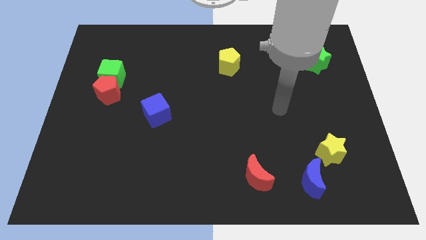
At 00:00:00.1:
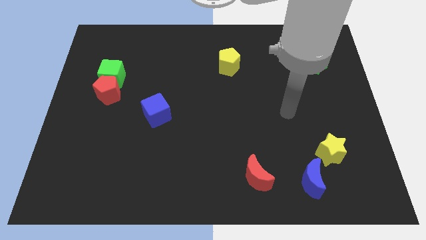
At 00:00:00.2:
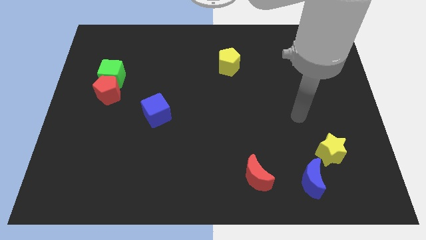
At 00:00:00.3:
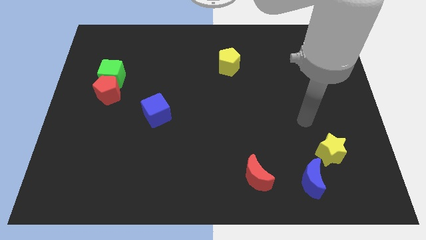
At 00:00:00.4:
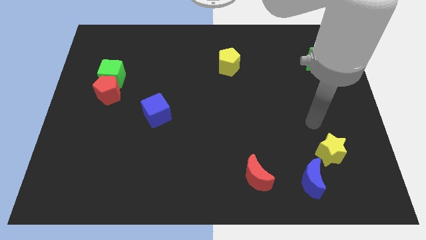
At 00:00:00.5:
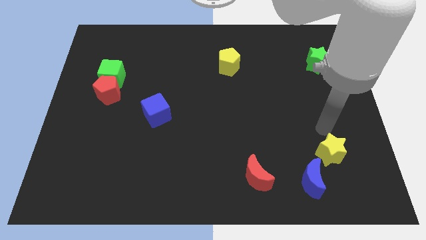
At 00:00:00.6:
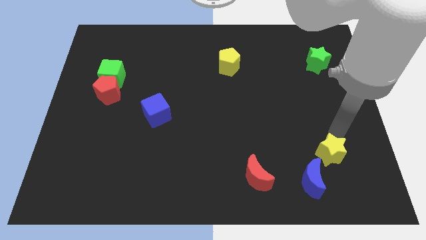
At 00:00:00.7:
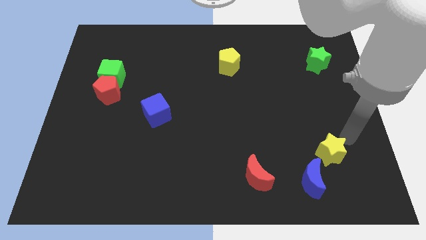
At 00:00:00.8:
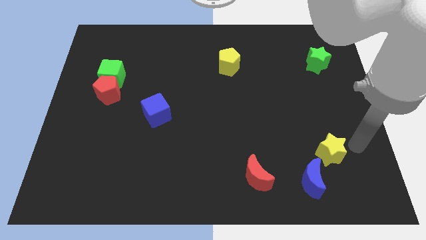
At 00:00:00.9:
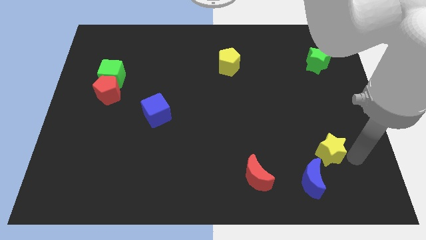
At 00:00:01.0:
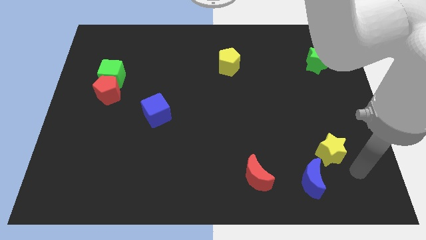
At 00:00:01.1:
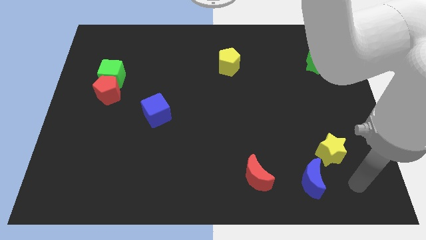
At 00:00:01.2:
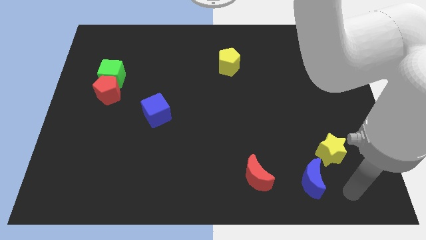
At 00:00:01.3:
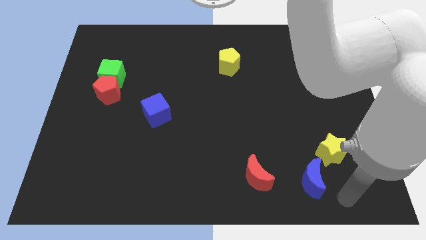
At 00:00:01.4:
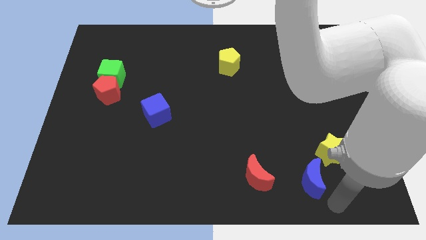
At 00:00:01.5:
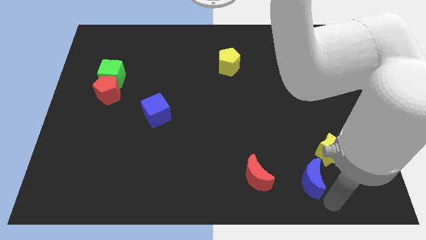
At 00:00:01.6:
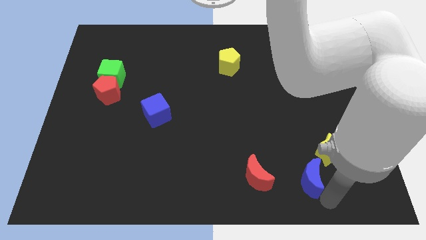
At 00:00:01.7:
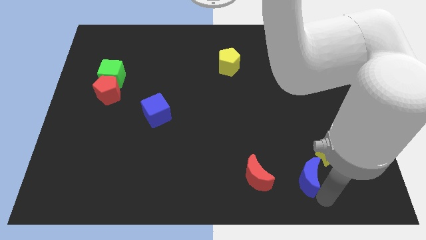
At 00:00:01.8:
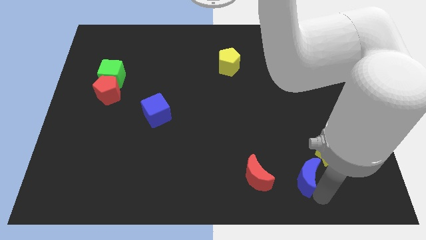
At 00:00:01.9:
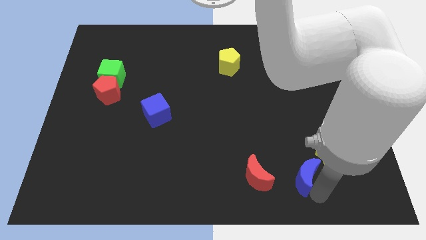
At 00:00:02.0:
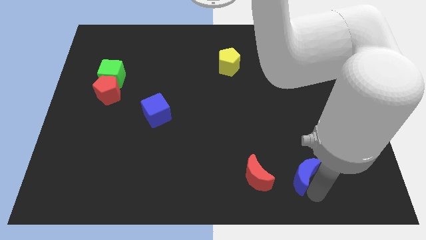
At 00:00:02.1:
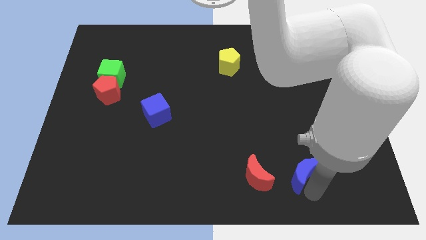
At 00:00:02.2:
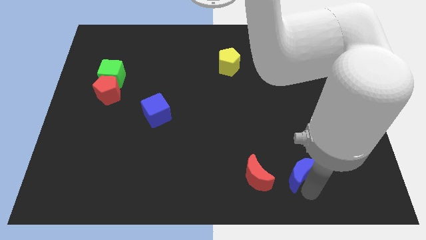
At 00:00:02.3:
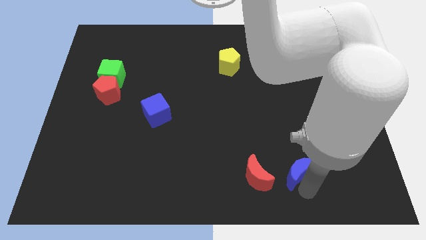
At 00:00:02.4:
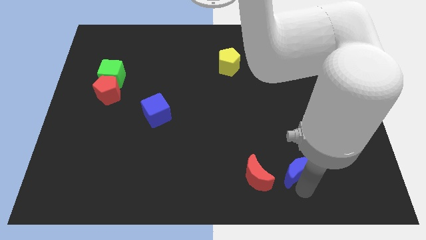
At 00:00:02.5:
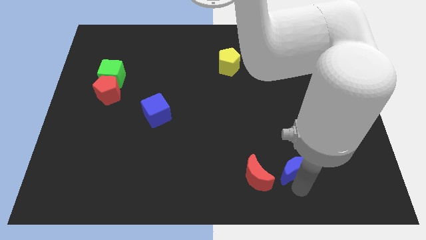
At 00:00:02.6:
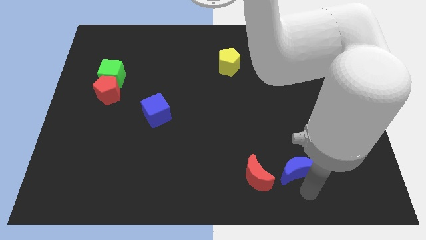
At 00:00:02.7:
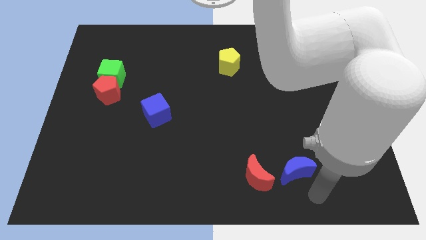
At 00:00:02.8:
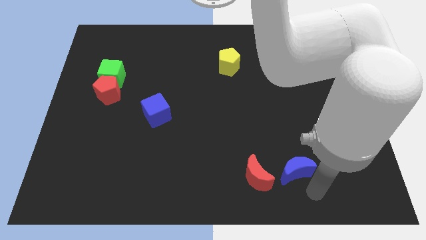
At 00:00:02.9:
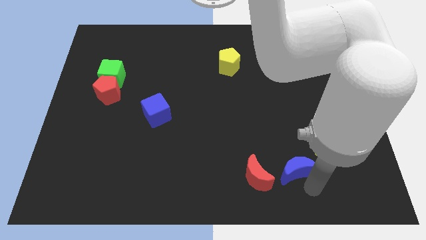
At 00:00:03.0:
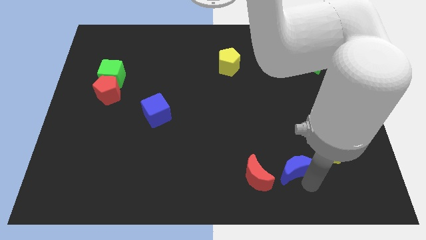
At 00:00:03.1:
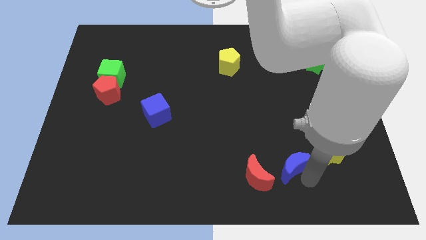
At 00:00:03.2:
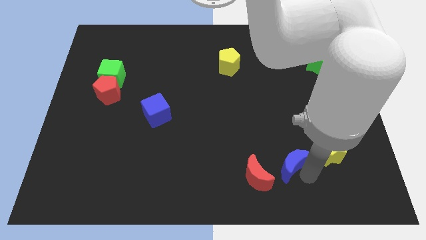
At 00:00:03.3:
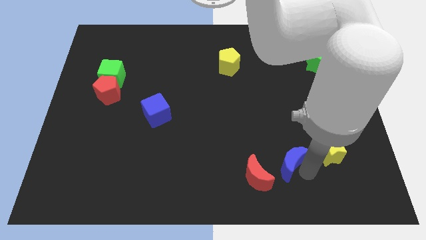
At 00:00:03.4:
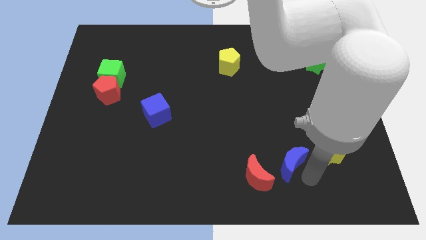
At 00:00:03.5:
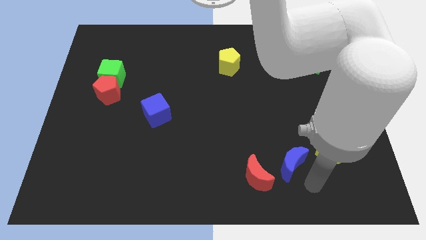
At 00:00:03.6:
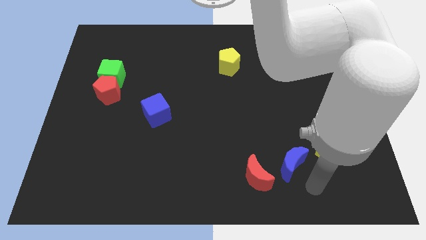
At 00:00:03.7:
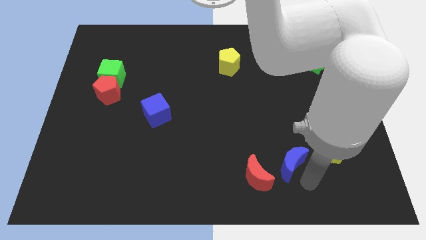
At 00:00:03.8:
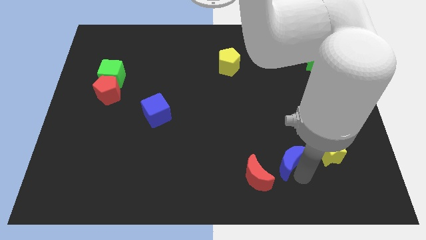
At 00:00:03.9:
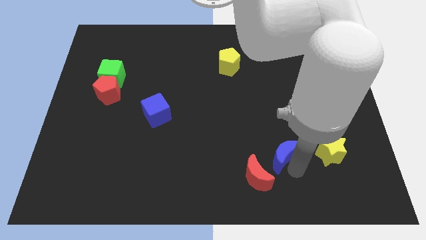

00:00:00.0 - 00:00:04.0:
slightly move the blue moon up and left diagonally

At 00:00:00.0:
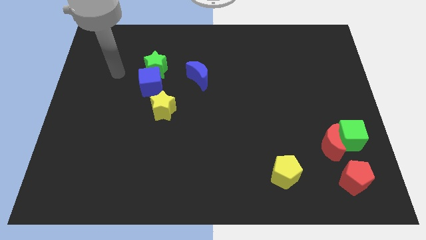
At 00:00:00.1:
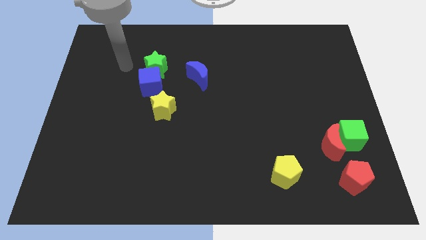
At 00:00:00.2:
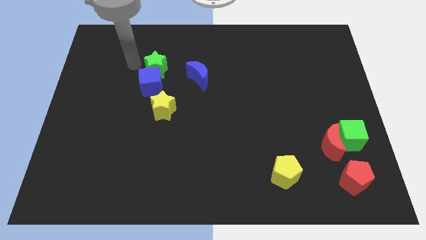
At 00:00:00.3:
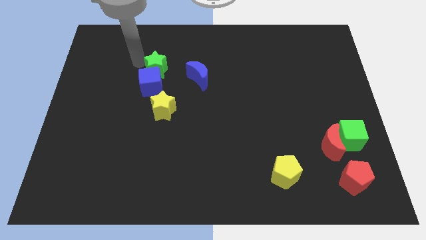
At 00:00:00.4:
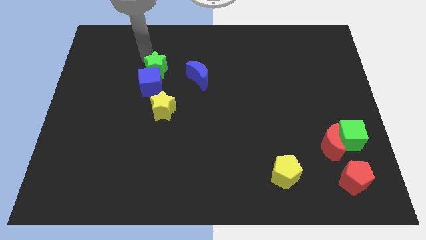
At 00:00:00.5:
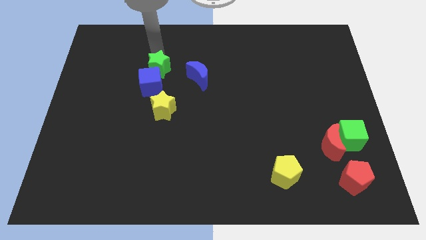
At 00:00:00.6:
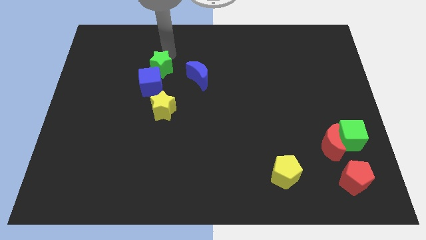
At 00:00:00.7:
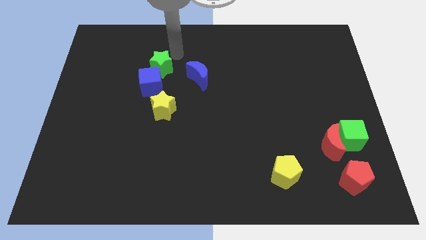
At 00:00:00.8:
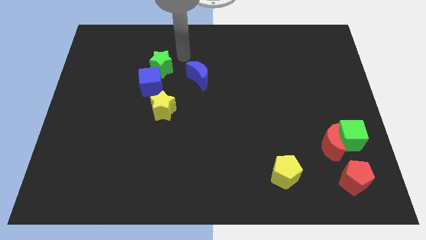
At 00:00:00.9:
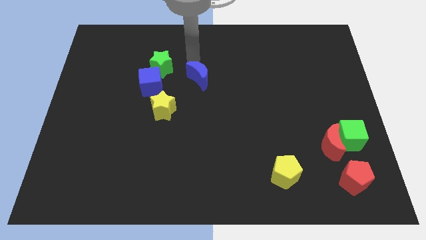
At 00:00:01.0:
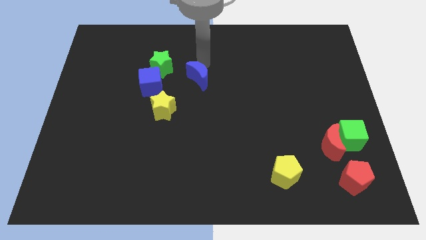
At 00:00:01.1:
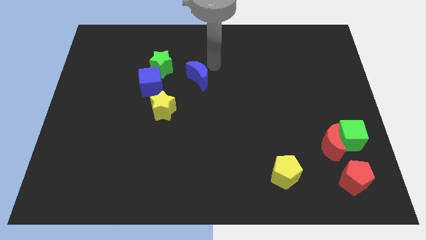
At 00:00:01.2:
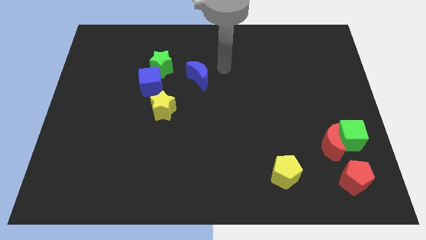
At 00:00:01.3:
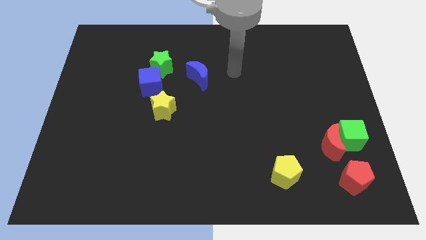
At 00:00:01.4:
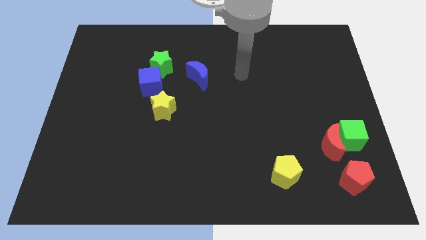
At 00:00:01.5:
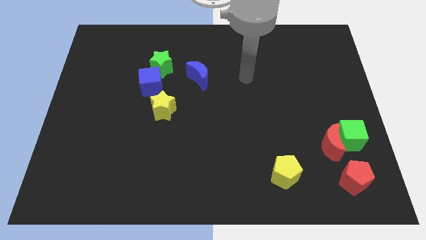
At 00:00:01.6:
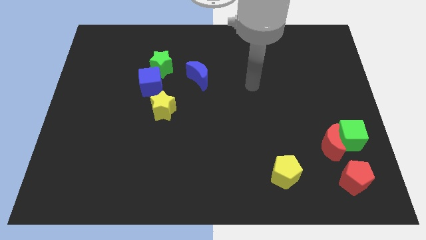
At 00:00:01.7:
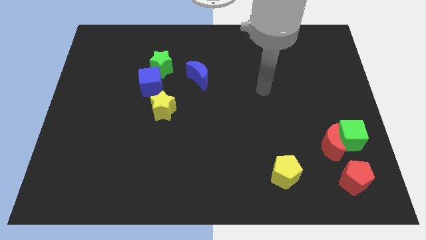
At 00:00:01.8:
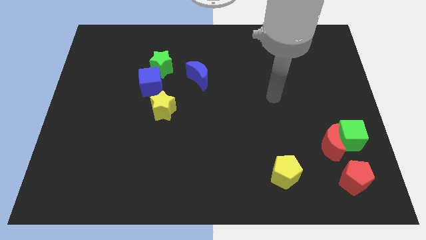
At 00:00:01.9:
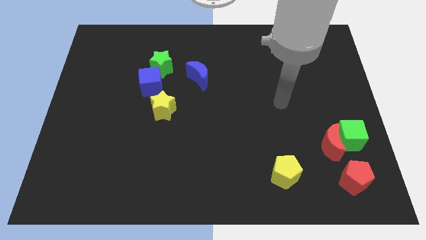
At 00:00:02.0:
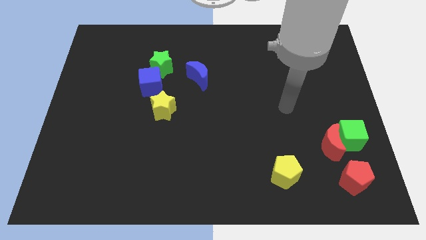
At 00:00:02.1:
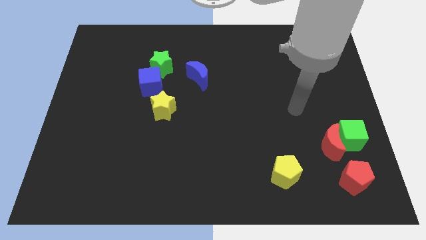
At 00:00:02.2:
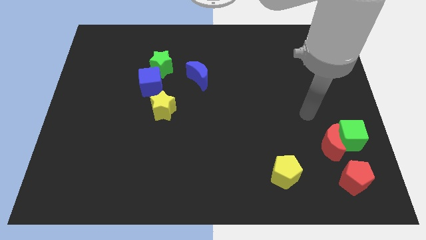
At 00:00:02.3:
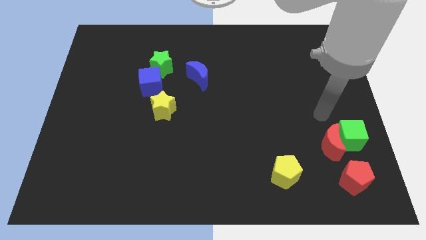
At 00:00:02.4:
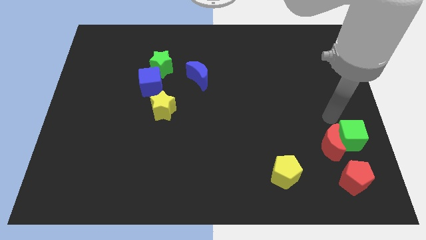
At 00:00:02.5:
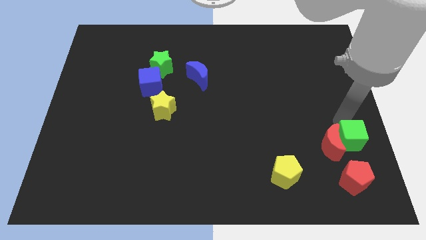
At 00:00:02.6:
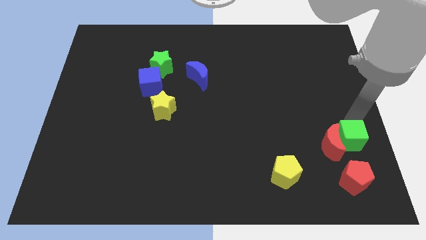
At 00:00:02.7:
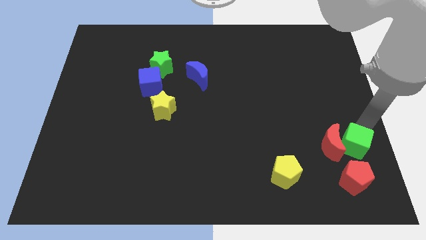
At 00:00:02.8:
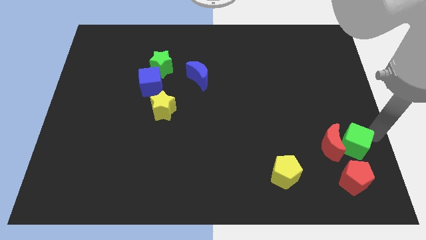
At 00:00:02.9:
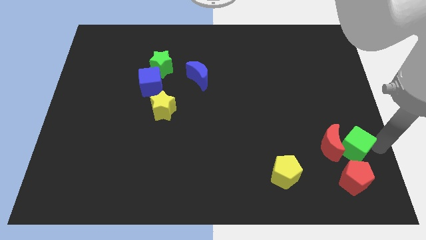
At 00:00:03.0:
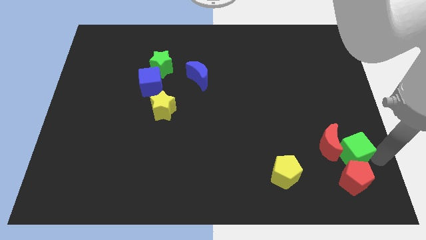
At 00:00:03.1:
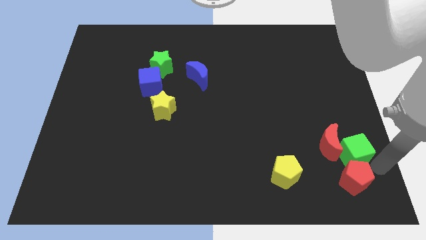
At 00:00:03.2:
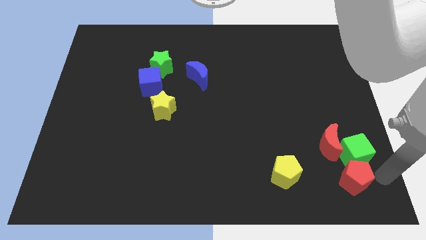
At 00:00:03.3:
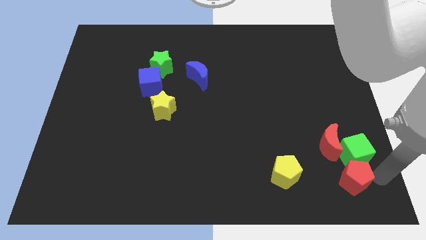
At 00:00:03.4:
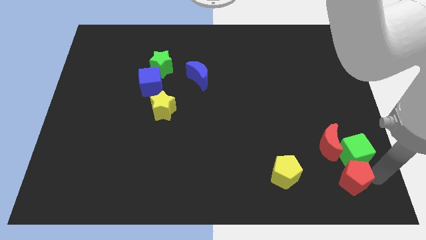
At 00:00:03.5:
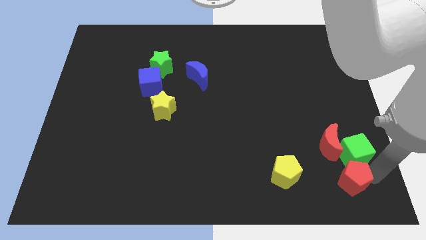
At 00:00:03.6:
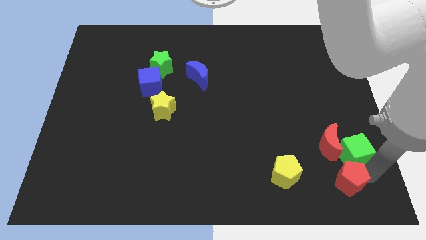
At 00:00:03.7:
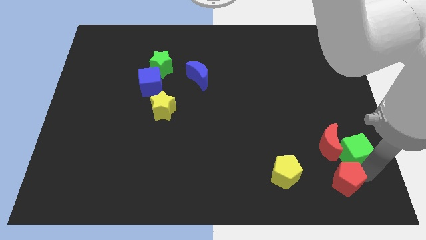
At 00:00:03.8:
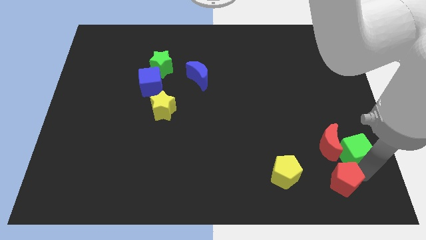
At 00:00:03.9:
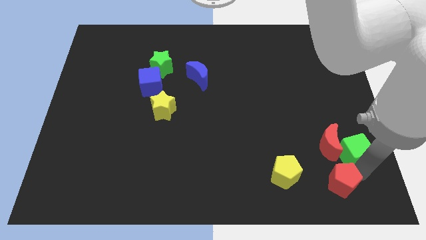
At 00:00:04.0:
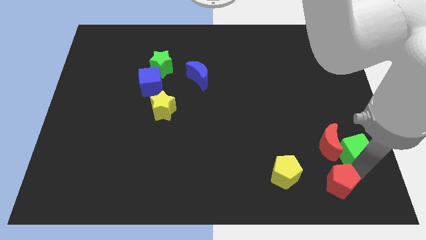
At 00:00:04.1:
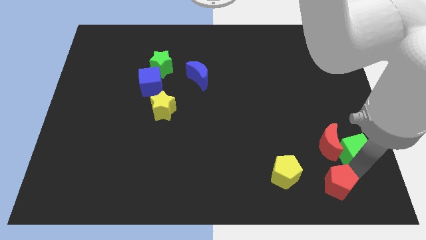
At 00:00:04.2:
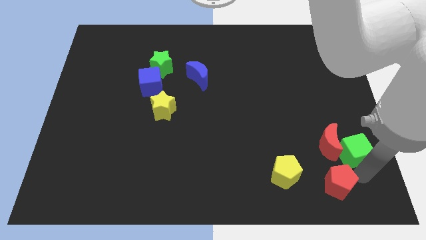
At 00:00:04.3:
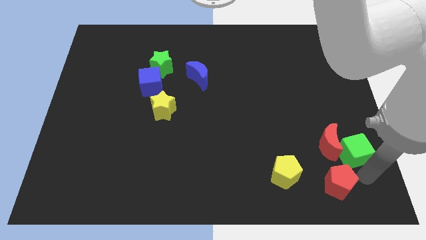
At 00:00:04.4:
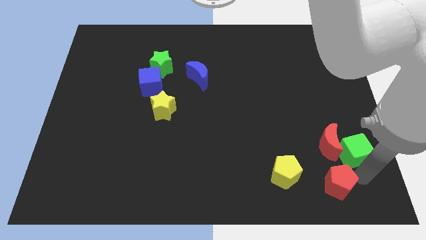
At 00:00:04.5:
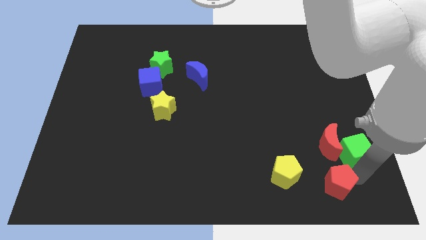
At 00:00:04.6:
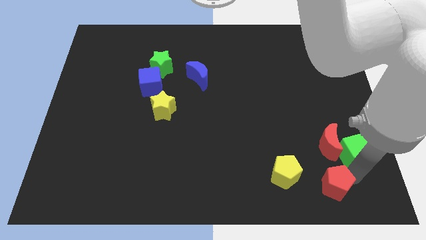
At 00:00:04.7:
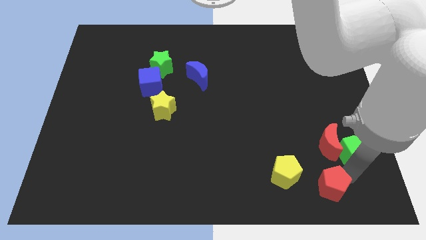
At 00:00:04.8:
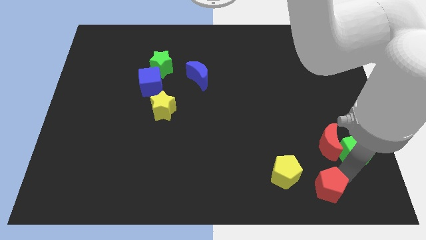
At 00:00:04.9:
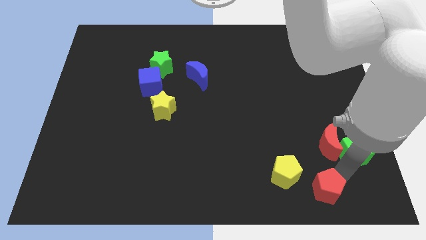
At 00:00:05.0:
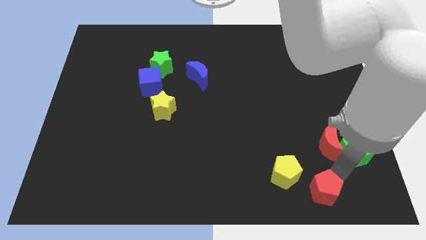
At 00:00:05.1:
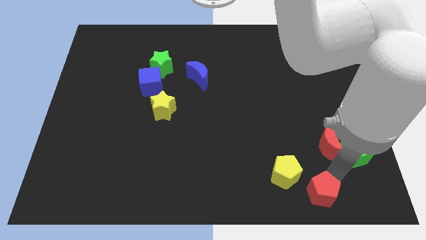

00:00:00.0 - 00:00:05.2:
slightly push the red pentagon left
